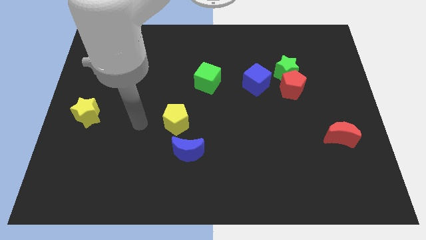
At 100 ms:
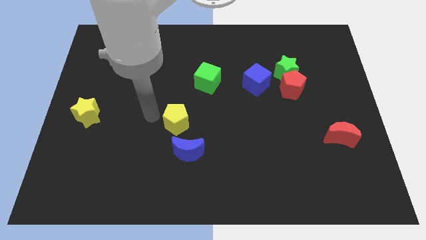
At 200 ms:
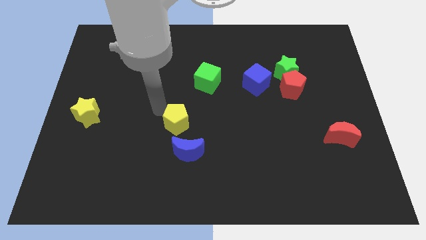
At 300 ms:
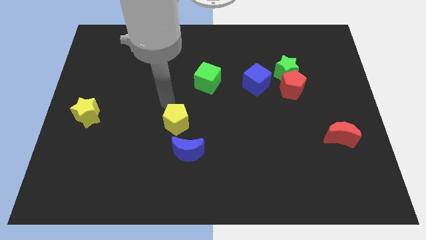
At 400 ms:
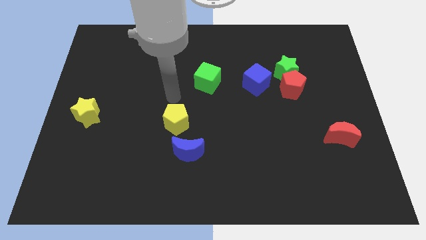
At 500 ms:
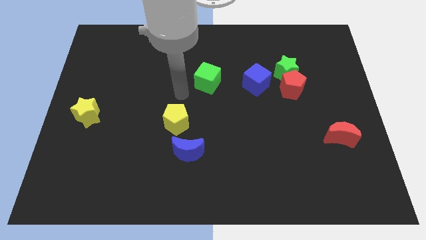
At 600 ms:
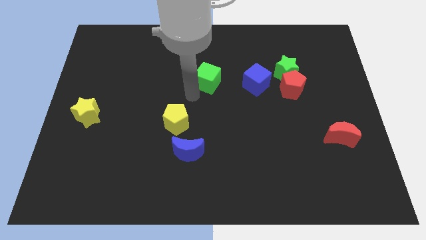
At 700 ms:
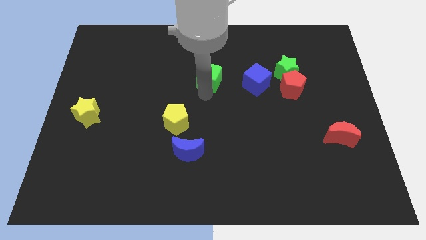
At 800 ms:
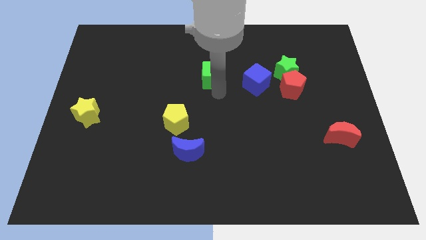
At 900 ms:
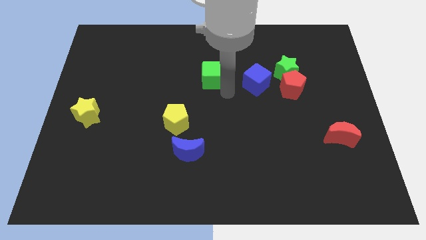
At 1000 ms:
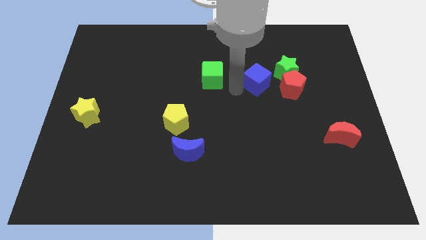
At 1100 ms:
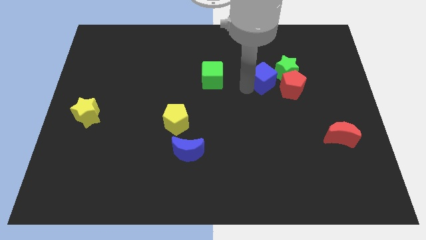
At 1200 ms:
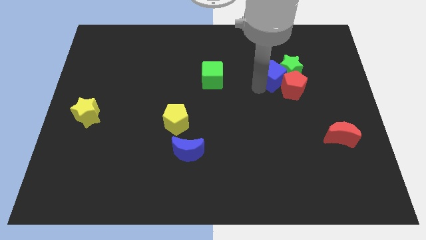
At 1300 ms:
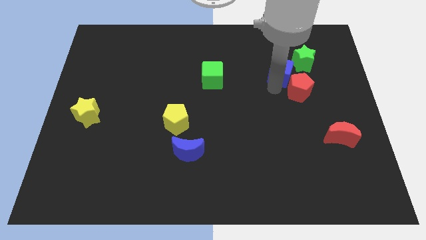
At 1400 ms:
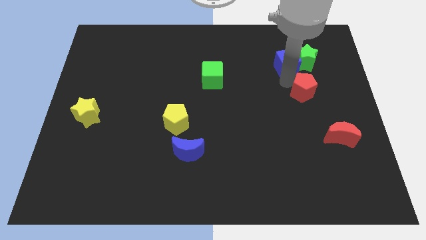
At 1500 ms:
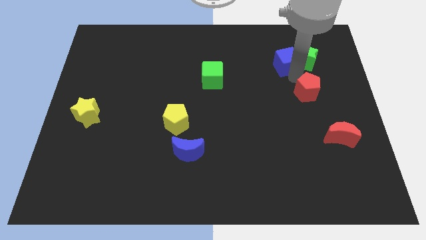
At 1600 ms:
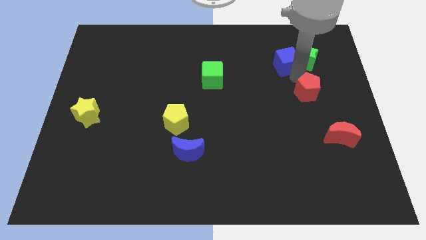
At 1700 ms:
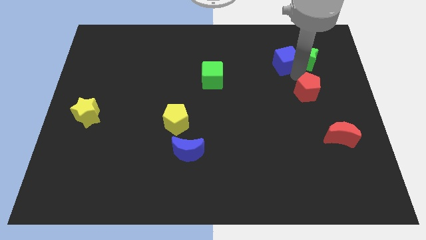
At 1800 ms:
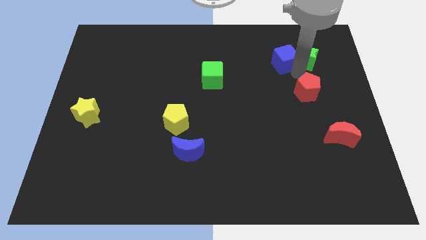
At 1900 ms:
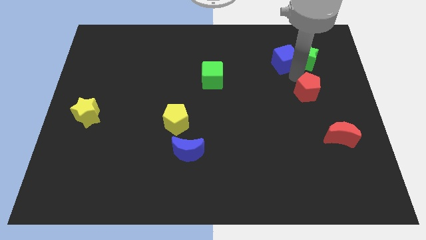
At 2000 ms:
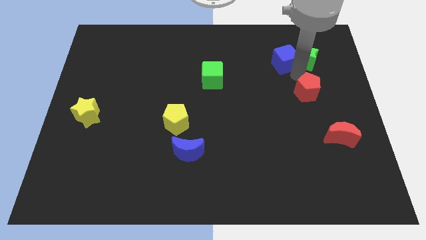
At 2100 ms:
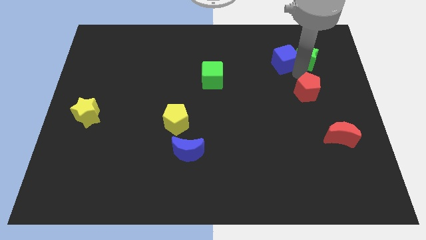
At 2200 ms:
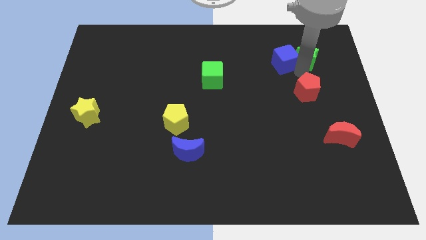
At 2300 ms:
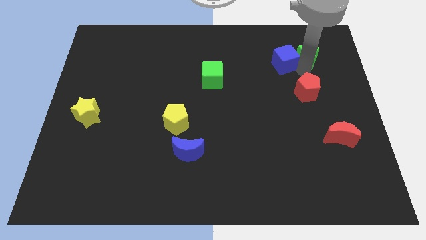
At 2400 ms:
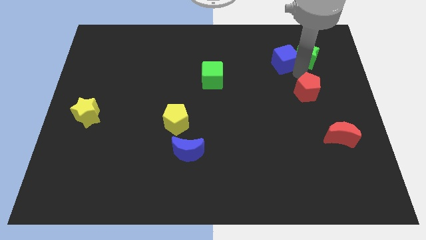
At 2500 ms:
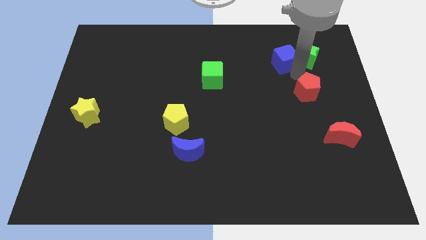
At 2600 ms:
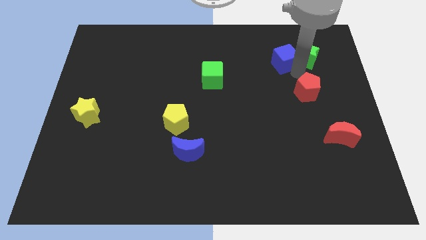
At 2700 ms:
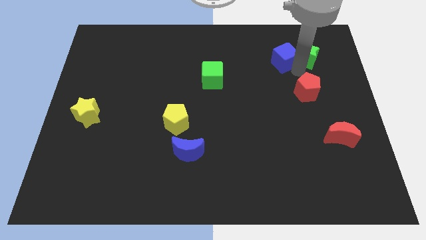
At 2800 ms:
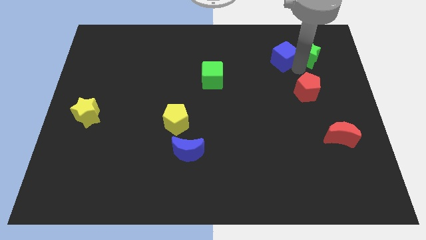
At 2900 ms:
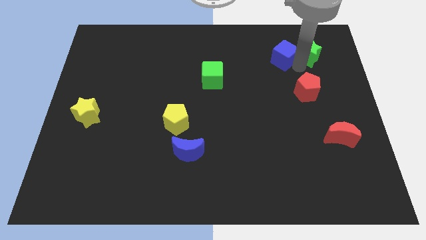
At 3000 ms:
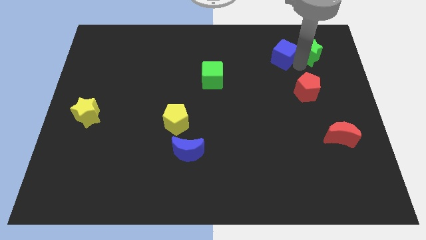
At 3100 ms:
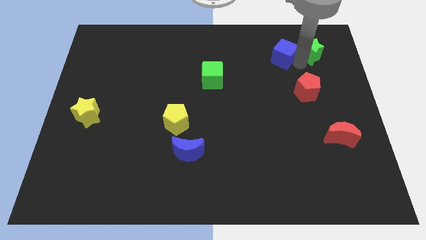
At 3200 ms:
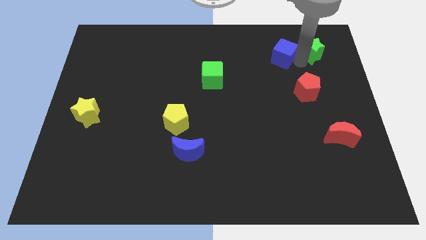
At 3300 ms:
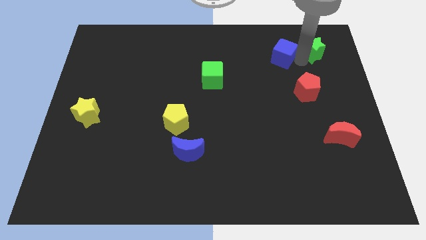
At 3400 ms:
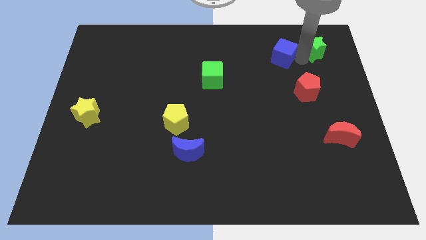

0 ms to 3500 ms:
move the green star away from the red pentagon and blue cube

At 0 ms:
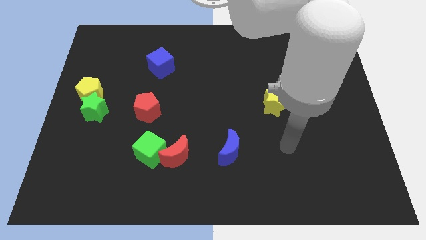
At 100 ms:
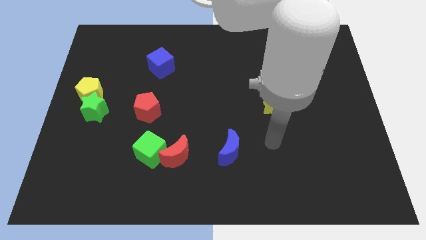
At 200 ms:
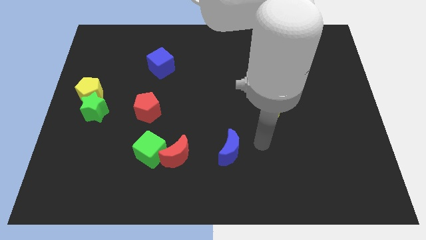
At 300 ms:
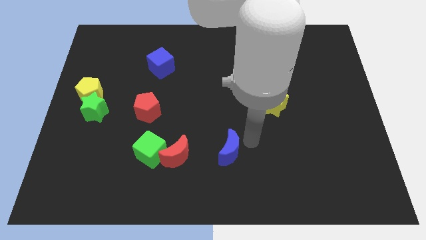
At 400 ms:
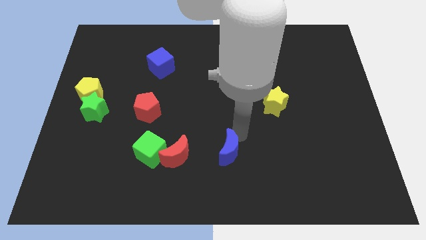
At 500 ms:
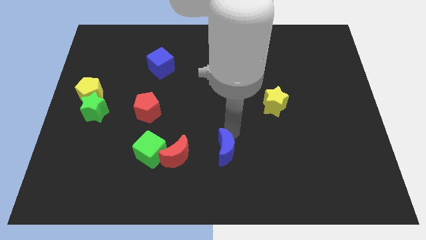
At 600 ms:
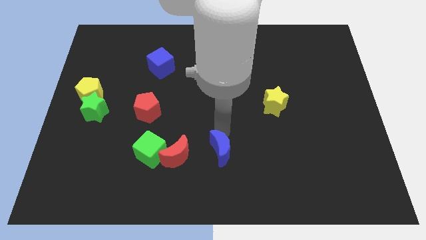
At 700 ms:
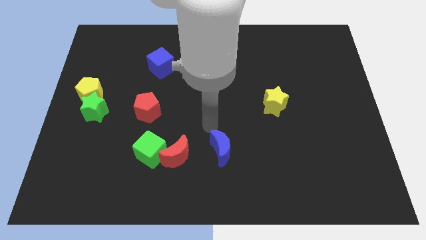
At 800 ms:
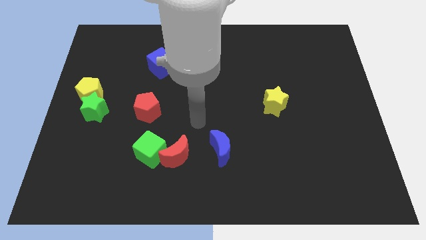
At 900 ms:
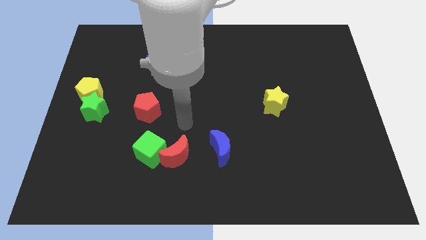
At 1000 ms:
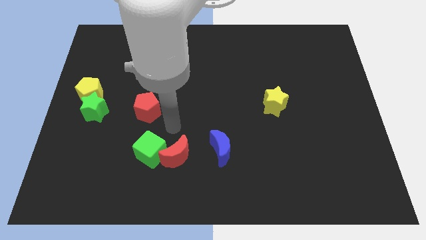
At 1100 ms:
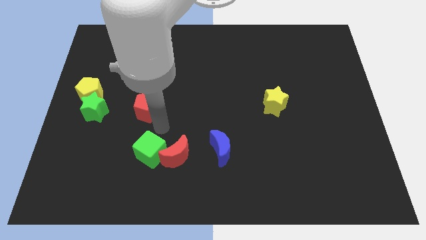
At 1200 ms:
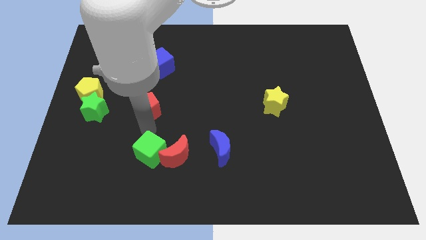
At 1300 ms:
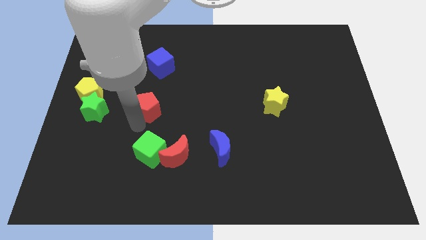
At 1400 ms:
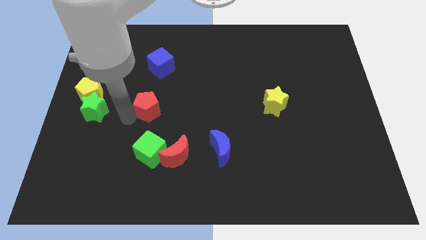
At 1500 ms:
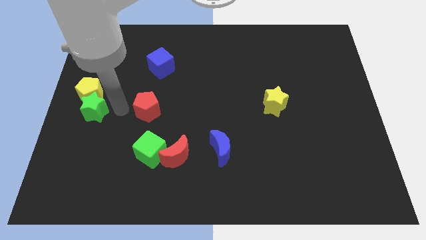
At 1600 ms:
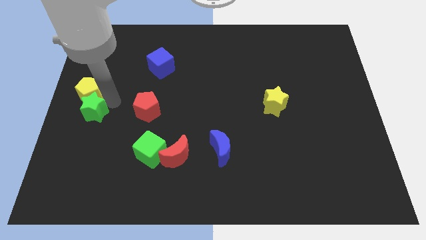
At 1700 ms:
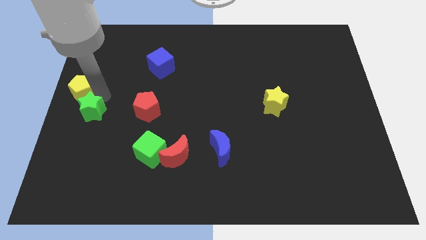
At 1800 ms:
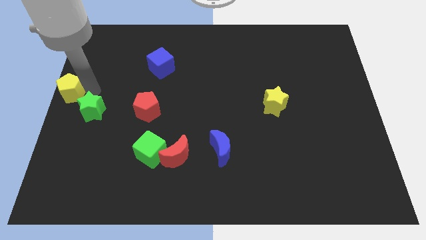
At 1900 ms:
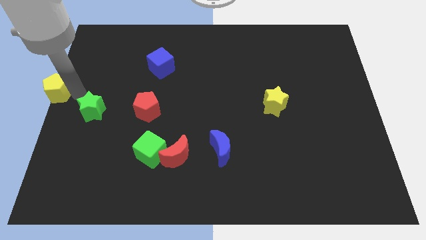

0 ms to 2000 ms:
pull the green star apart from the yellow pentagon

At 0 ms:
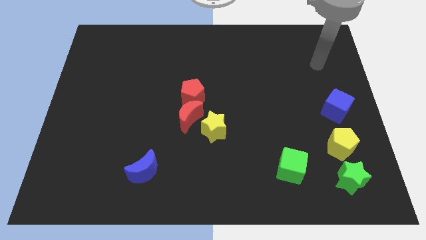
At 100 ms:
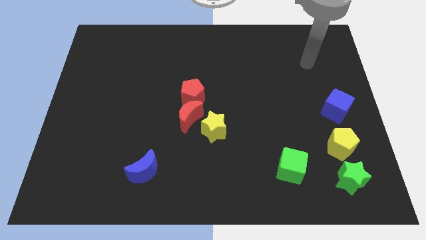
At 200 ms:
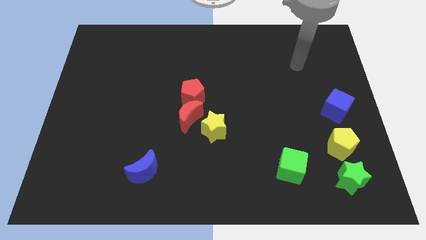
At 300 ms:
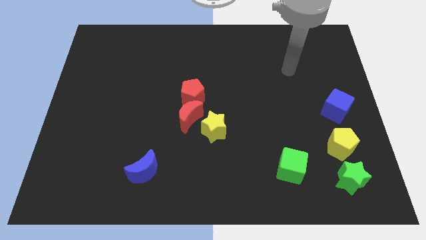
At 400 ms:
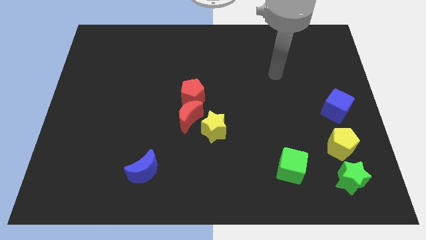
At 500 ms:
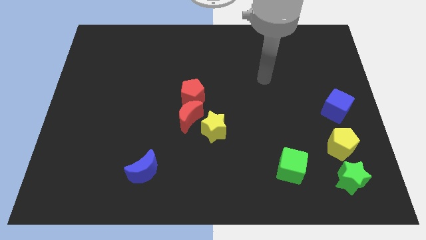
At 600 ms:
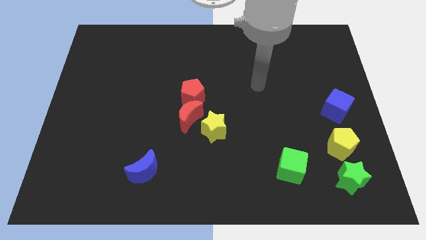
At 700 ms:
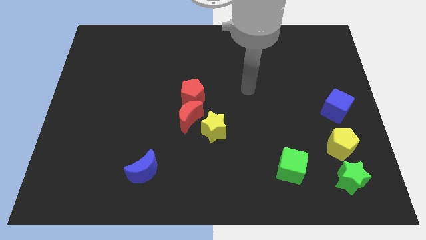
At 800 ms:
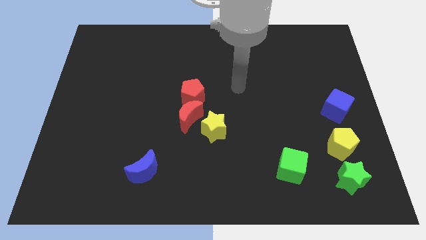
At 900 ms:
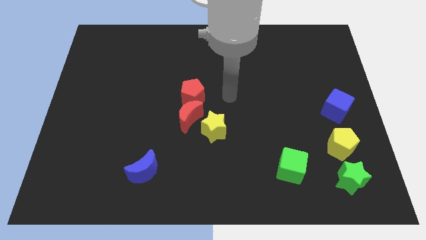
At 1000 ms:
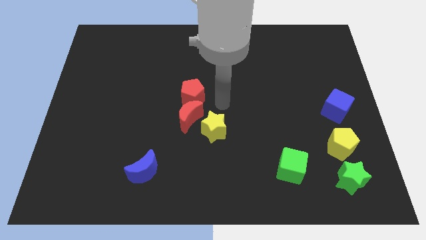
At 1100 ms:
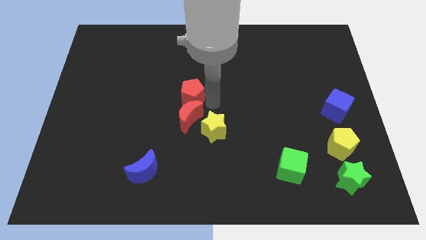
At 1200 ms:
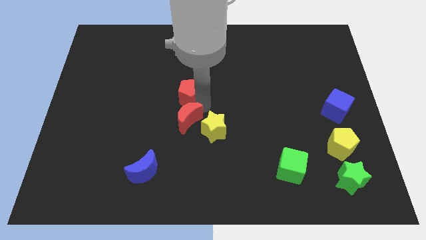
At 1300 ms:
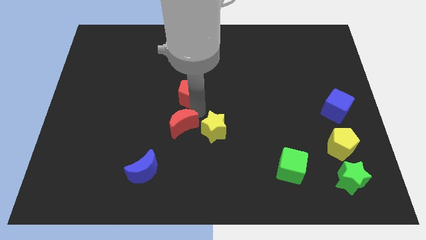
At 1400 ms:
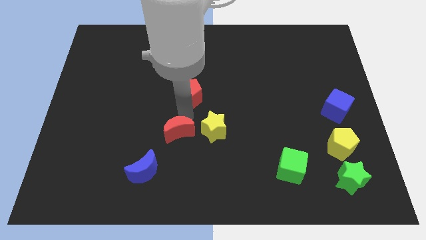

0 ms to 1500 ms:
move the red pentagon away from the red moon

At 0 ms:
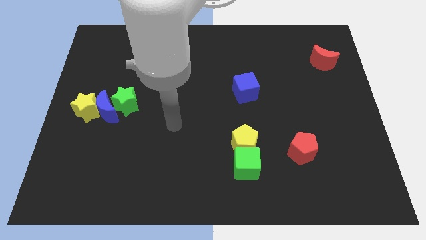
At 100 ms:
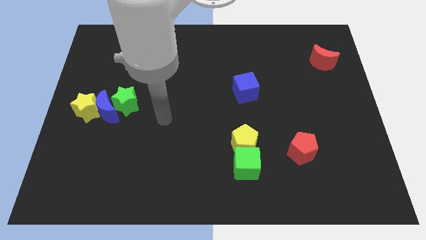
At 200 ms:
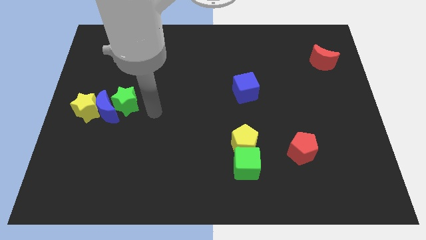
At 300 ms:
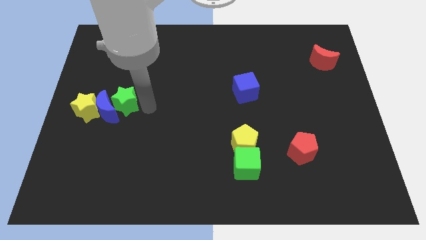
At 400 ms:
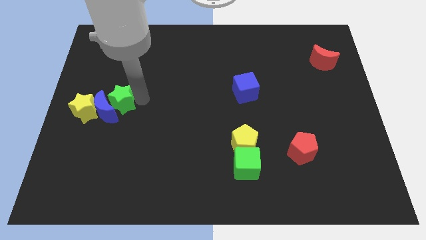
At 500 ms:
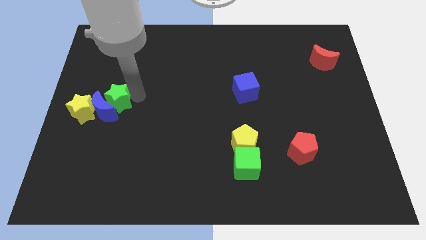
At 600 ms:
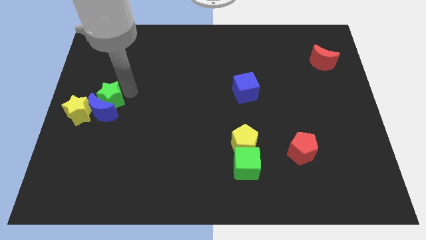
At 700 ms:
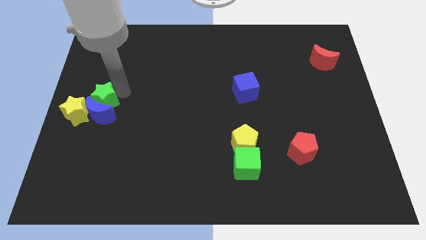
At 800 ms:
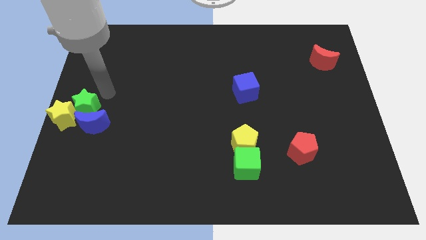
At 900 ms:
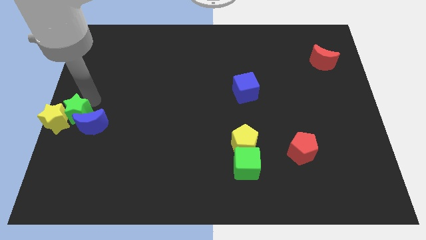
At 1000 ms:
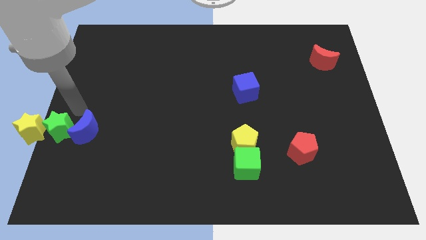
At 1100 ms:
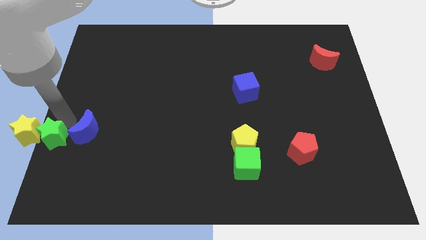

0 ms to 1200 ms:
separate the blue moon from the yellow star and green star

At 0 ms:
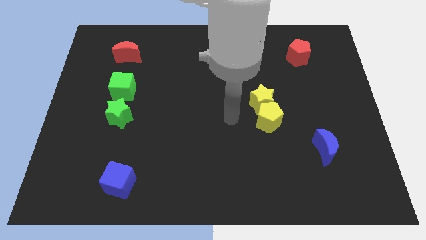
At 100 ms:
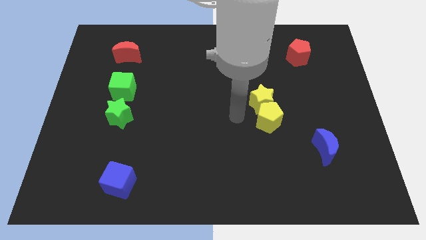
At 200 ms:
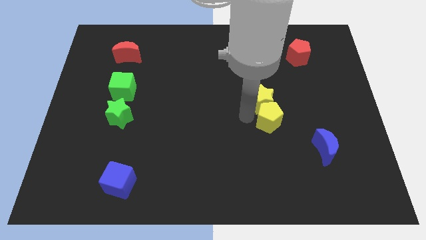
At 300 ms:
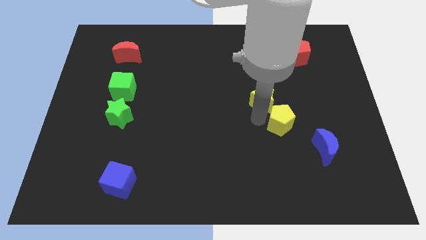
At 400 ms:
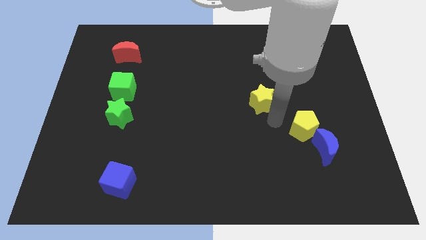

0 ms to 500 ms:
pull the yellow star apart from the yellow pentagon

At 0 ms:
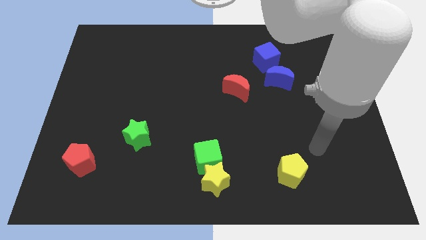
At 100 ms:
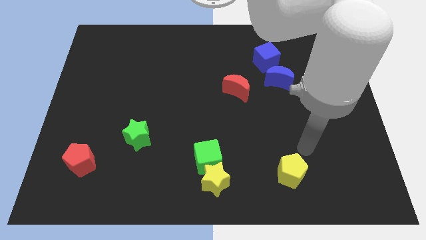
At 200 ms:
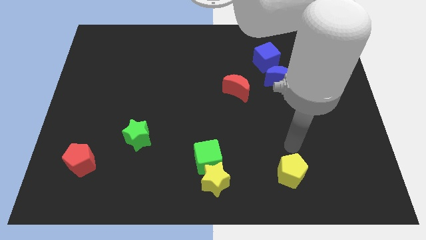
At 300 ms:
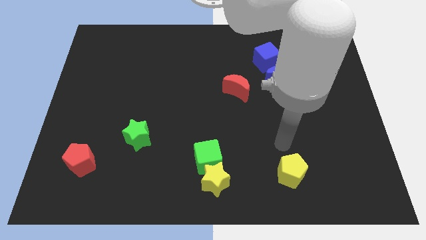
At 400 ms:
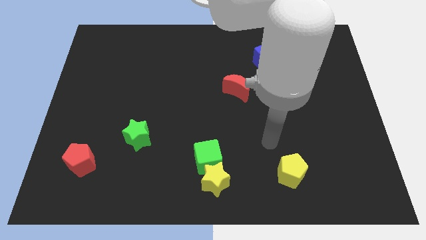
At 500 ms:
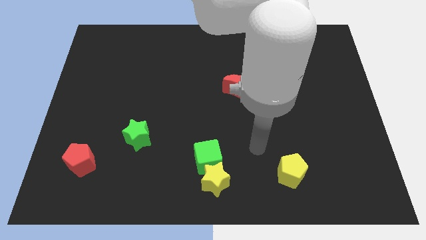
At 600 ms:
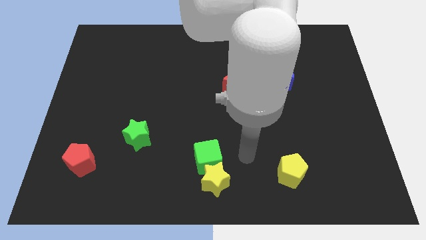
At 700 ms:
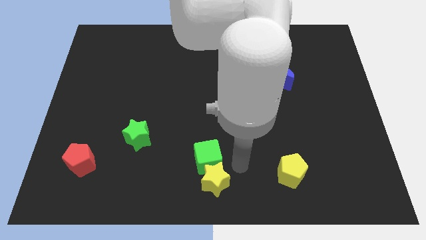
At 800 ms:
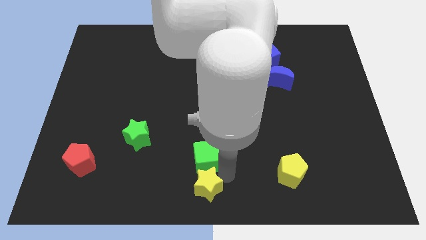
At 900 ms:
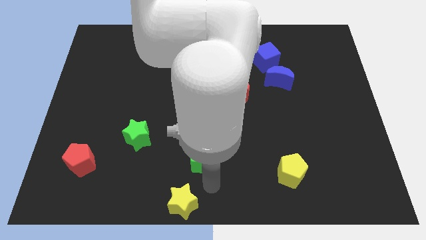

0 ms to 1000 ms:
move the green cube away from the yellow star
